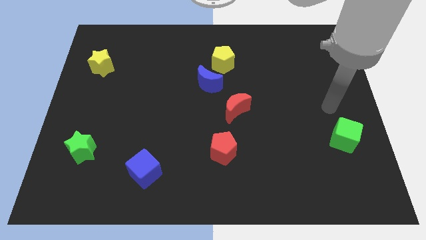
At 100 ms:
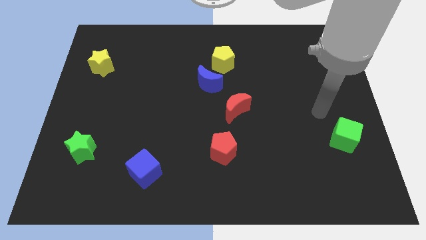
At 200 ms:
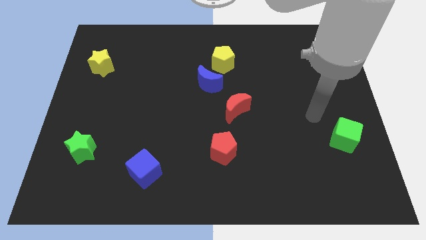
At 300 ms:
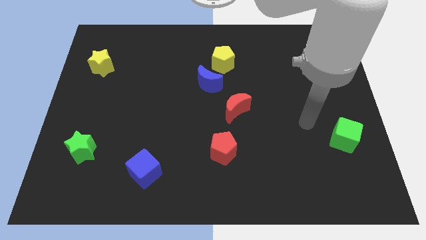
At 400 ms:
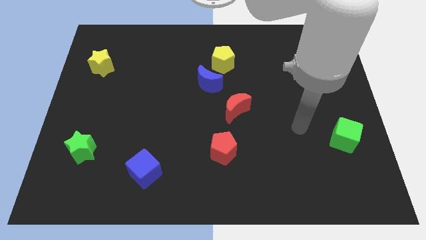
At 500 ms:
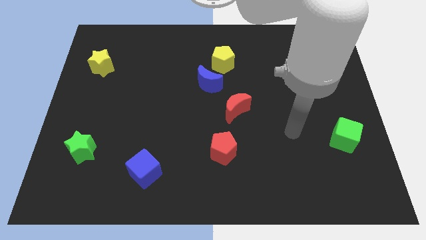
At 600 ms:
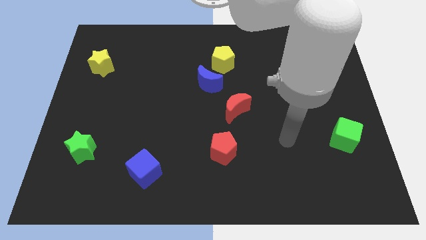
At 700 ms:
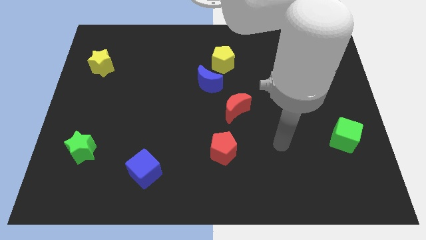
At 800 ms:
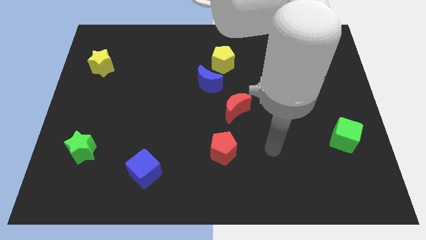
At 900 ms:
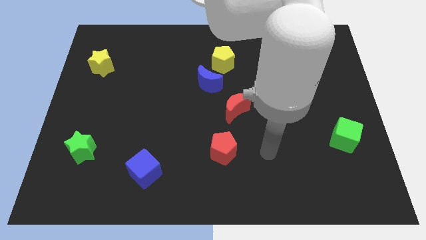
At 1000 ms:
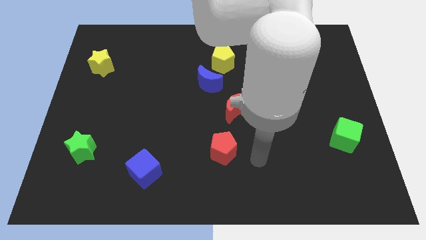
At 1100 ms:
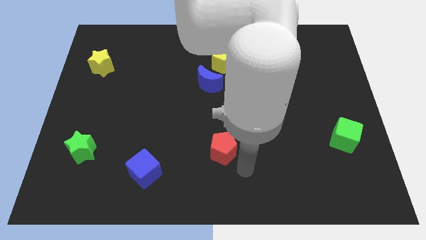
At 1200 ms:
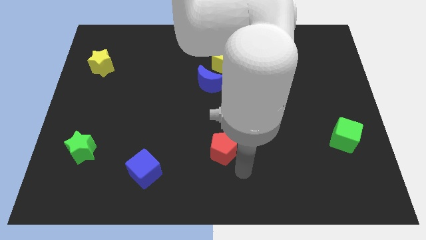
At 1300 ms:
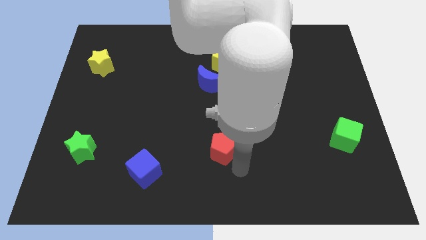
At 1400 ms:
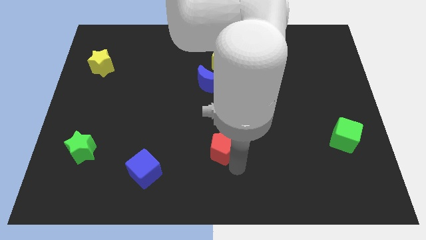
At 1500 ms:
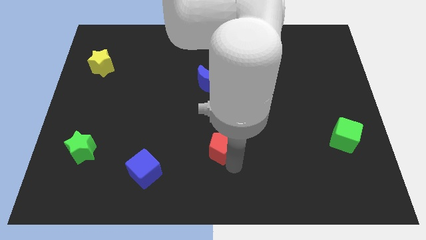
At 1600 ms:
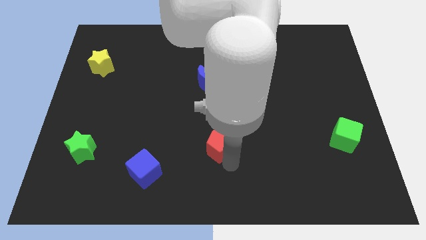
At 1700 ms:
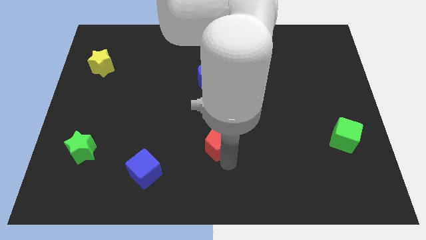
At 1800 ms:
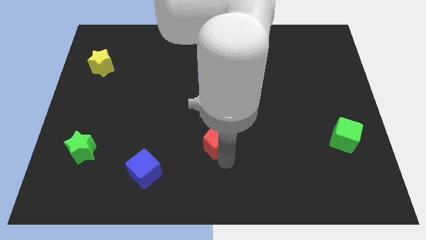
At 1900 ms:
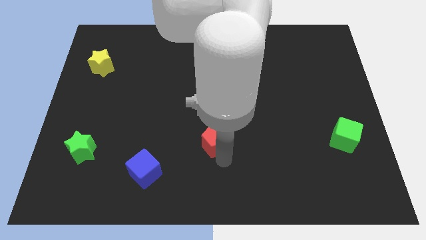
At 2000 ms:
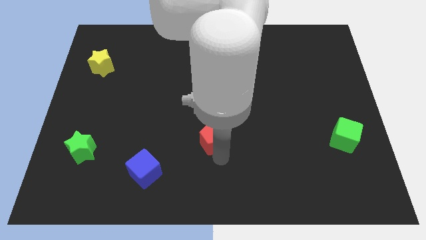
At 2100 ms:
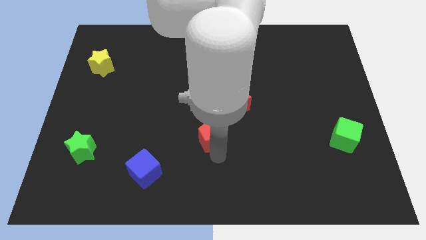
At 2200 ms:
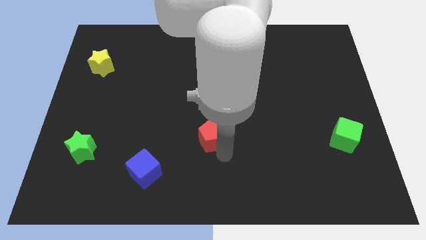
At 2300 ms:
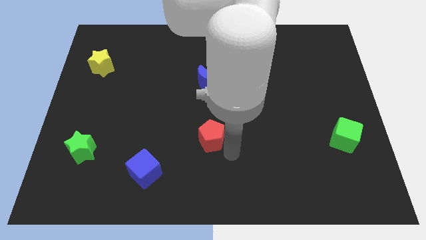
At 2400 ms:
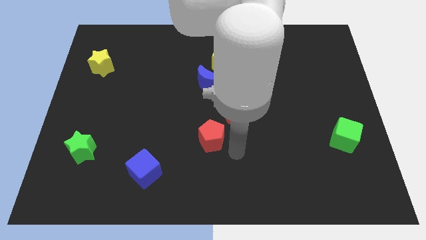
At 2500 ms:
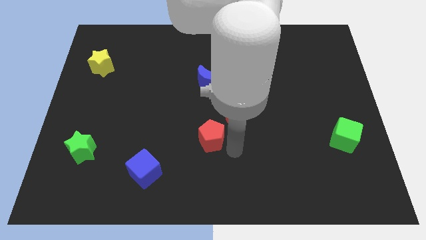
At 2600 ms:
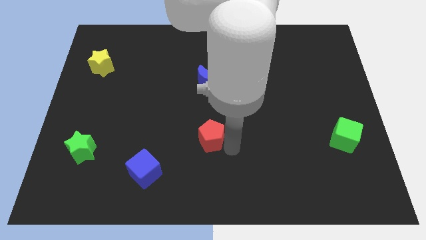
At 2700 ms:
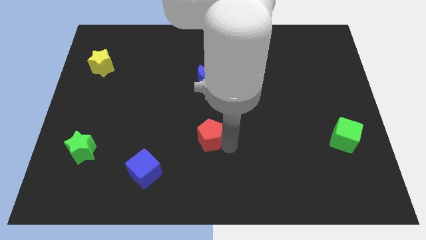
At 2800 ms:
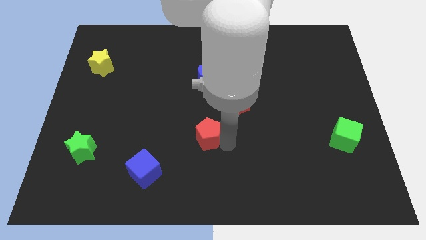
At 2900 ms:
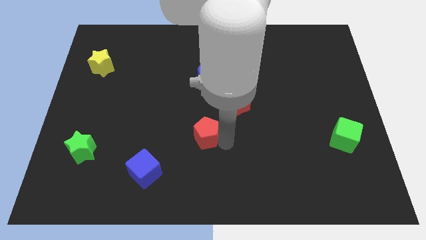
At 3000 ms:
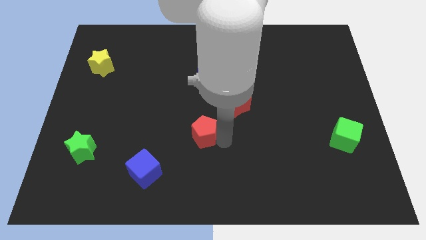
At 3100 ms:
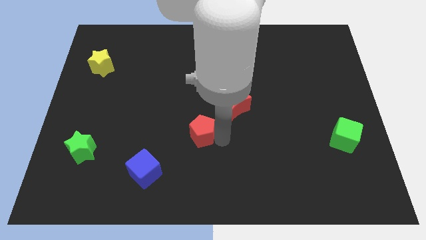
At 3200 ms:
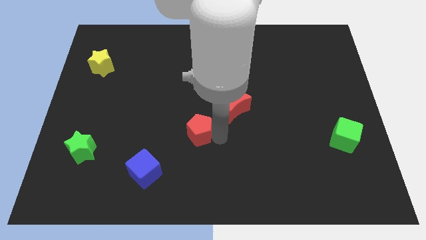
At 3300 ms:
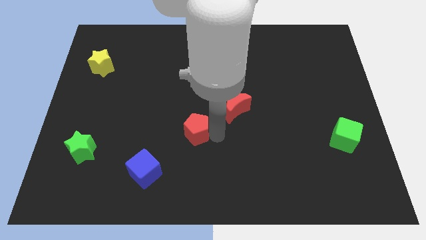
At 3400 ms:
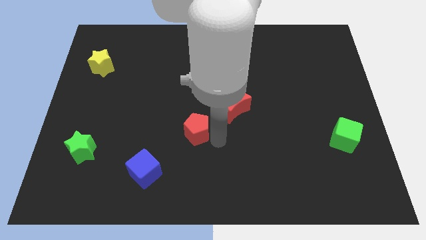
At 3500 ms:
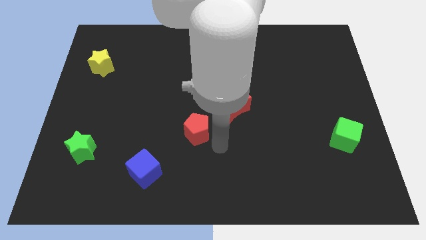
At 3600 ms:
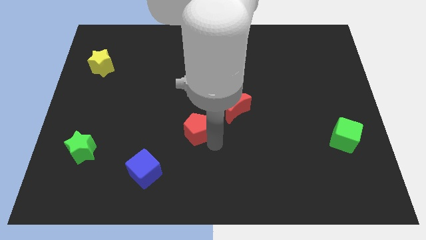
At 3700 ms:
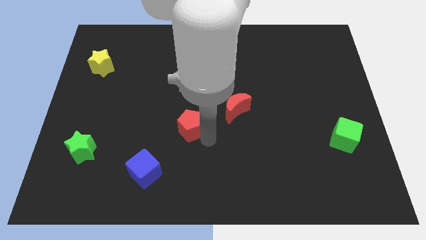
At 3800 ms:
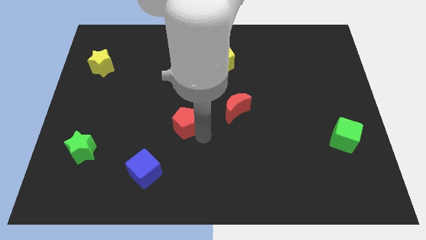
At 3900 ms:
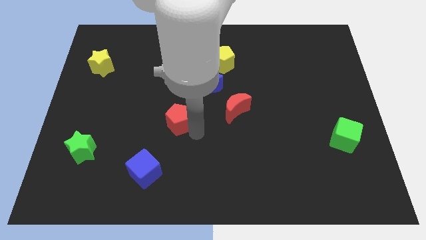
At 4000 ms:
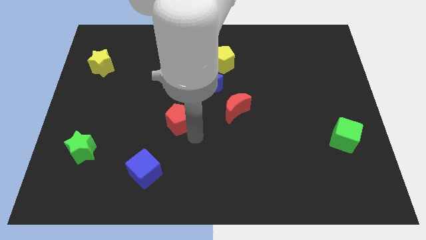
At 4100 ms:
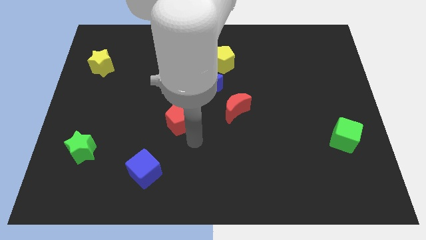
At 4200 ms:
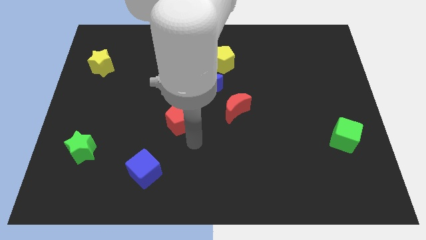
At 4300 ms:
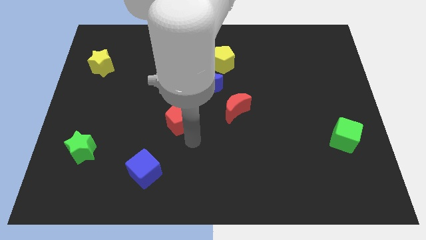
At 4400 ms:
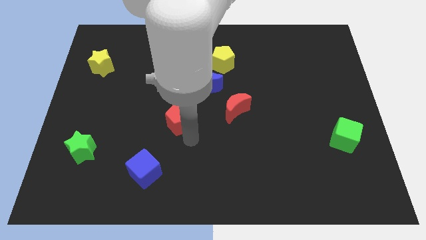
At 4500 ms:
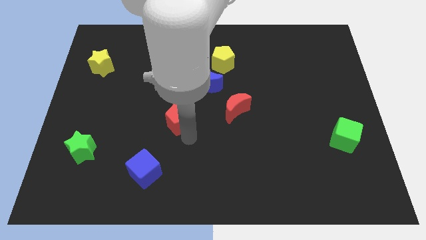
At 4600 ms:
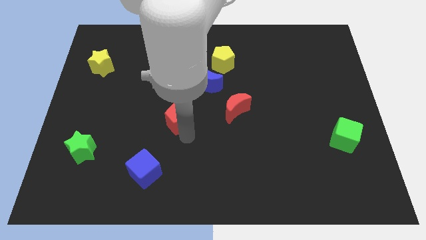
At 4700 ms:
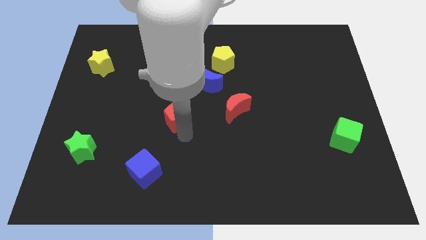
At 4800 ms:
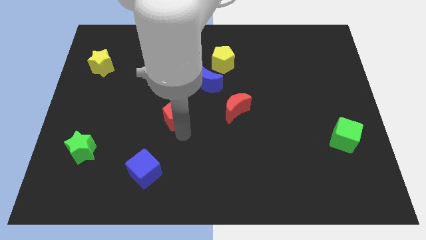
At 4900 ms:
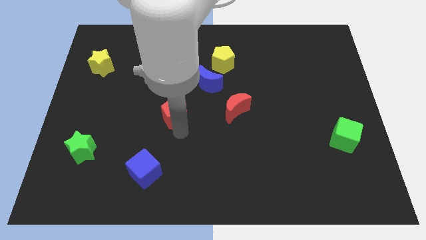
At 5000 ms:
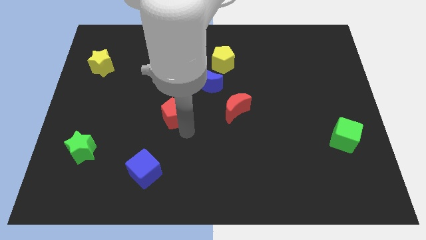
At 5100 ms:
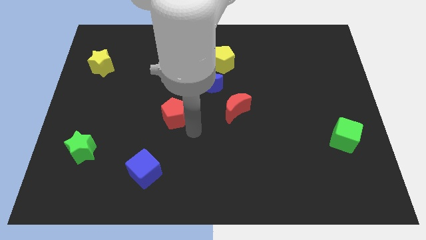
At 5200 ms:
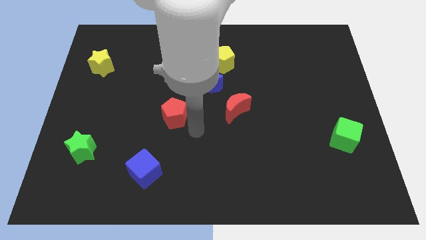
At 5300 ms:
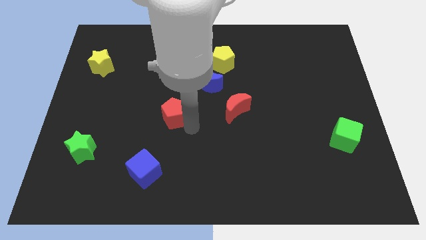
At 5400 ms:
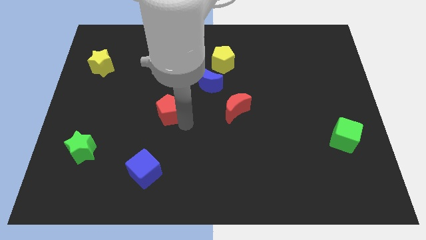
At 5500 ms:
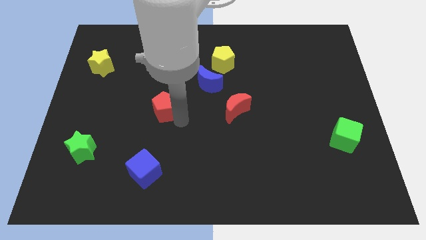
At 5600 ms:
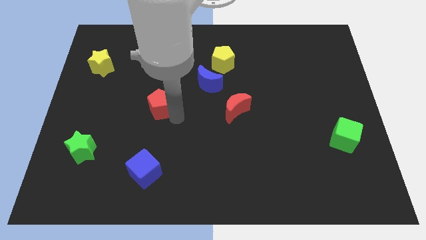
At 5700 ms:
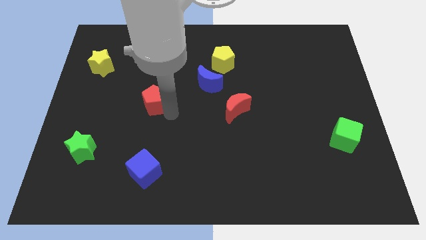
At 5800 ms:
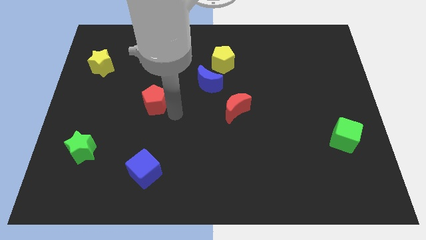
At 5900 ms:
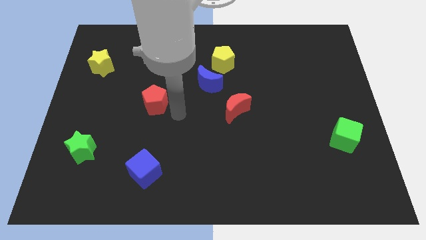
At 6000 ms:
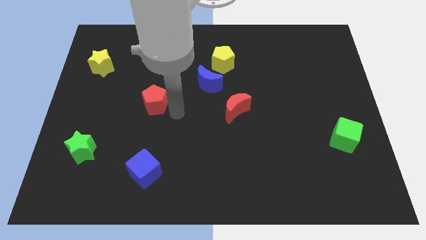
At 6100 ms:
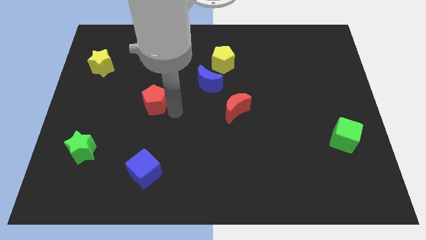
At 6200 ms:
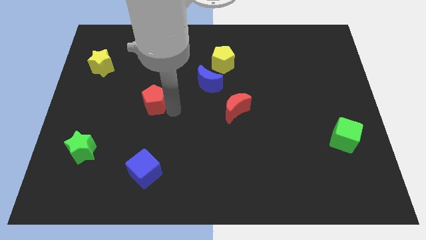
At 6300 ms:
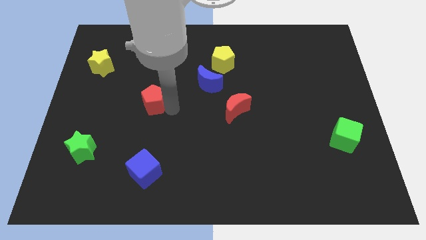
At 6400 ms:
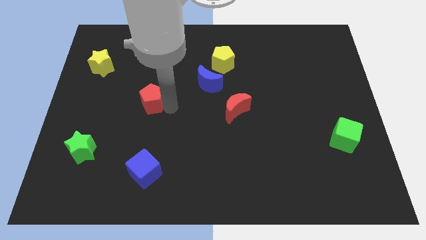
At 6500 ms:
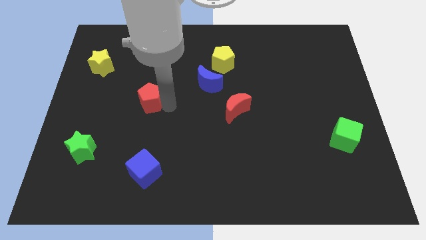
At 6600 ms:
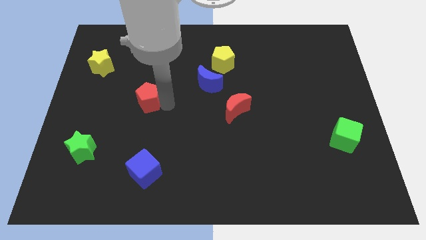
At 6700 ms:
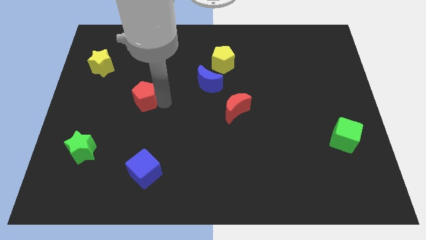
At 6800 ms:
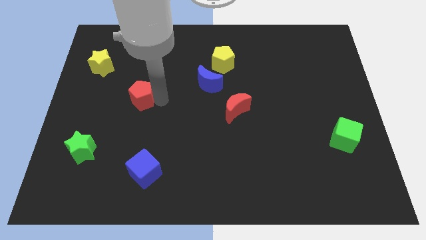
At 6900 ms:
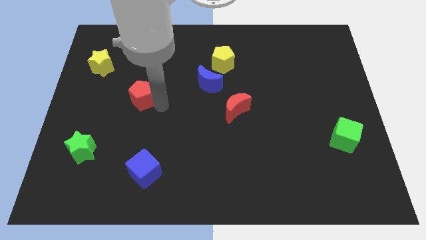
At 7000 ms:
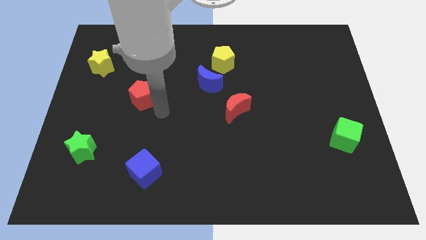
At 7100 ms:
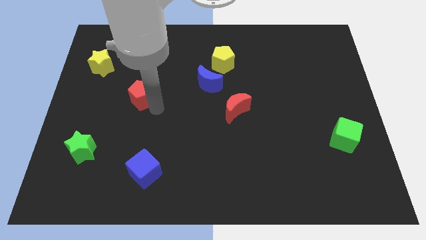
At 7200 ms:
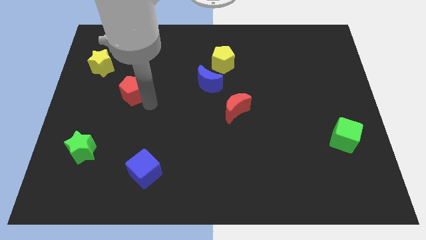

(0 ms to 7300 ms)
move the red pentagon to the bottom right of the yellow star
